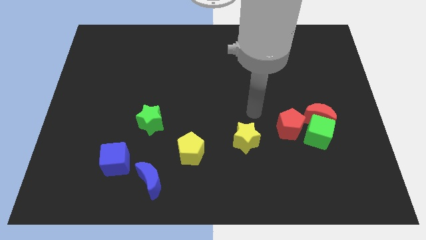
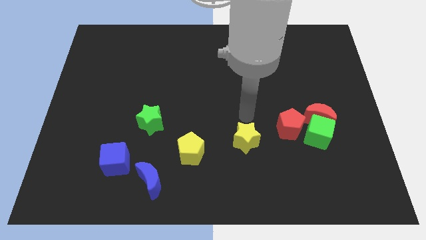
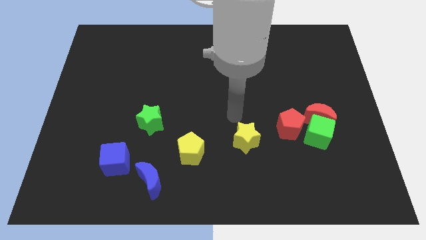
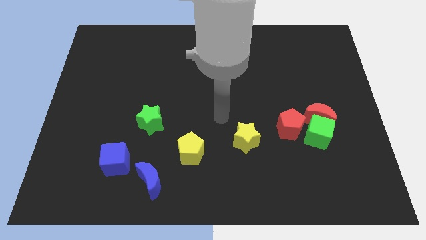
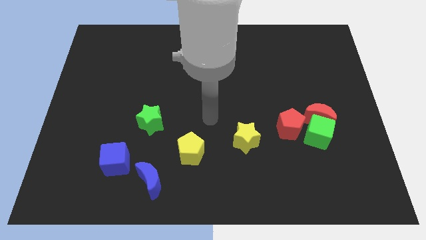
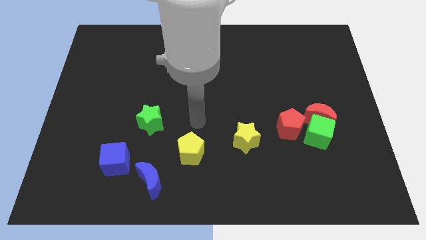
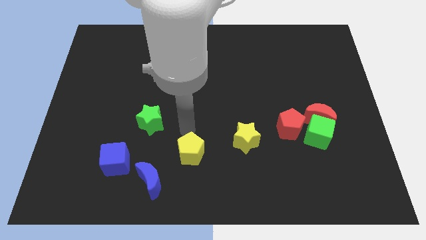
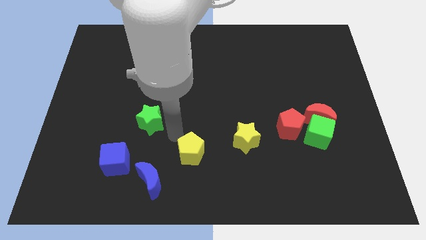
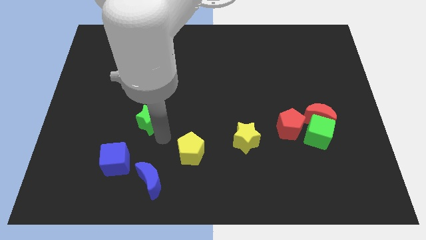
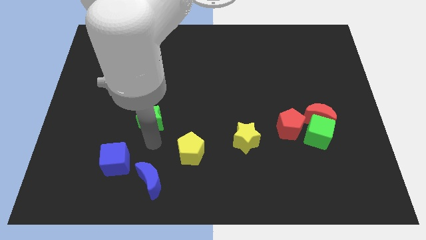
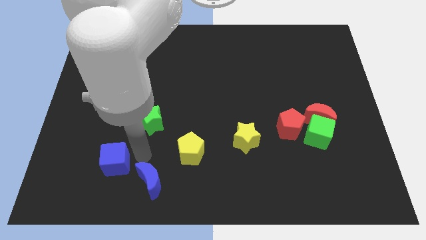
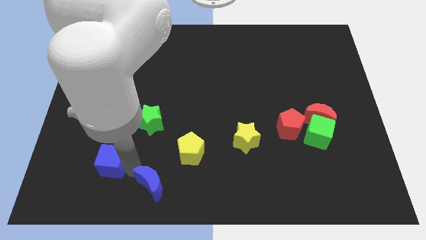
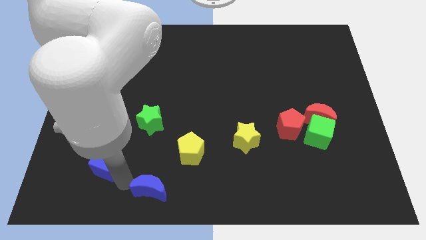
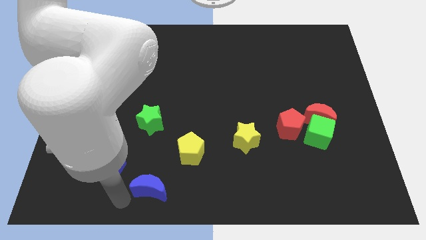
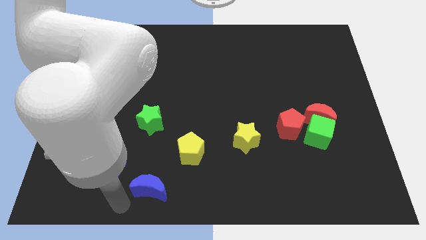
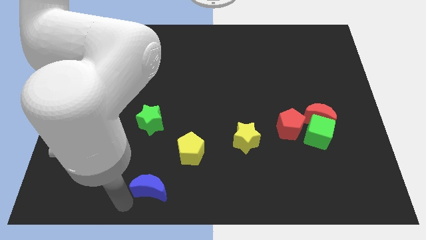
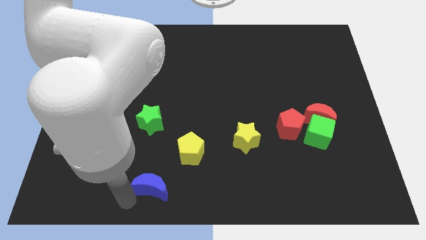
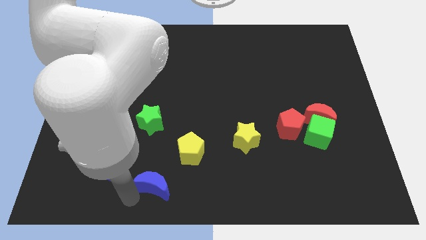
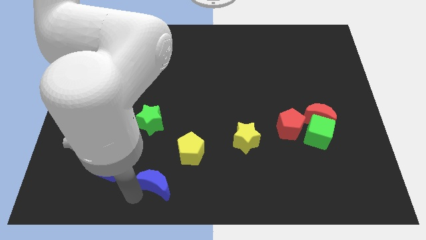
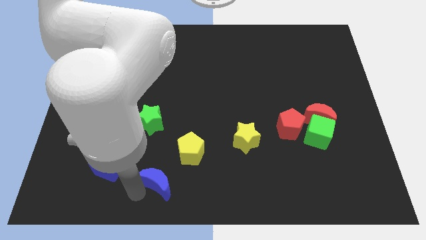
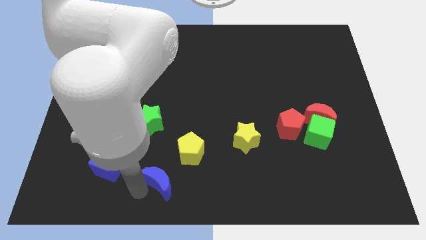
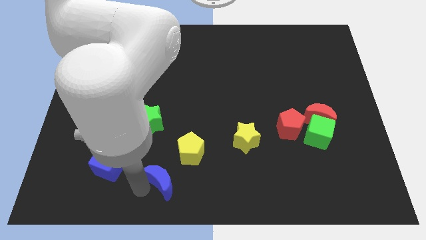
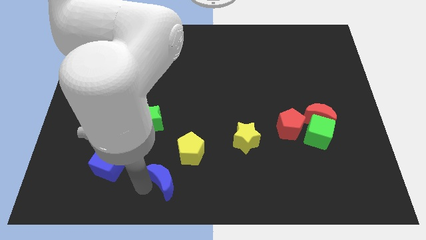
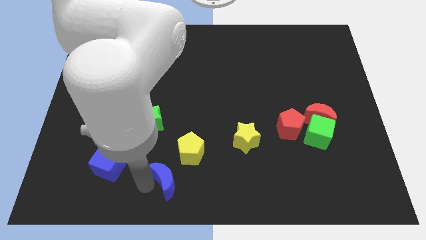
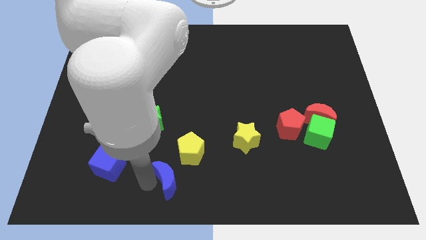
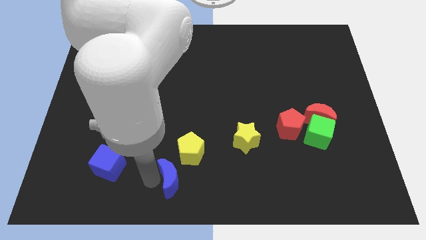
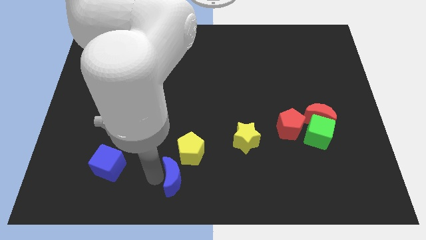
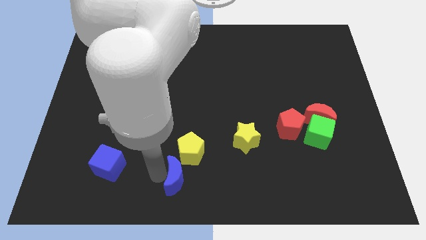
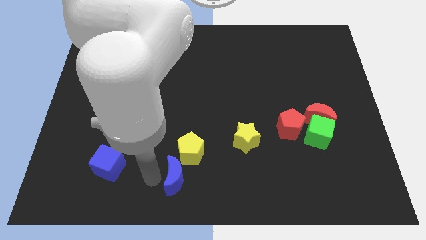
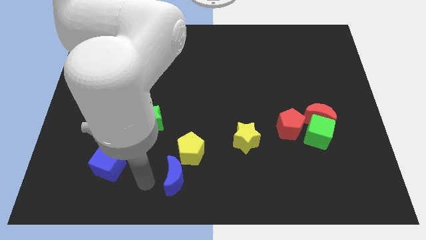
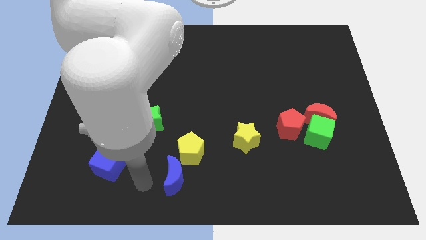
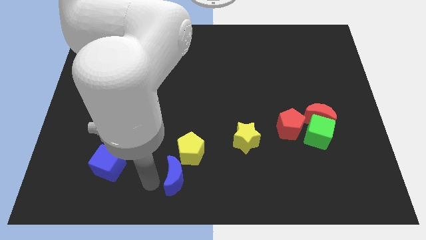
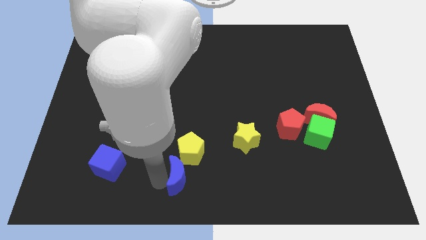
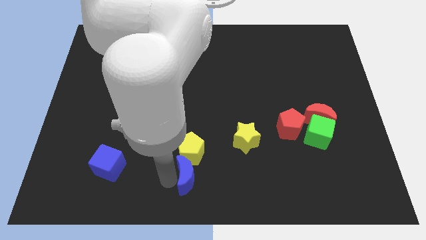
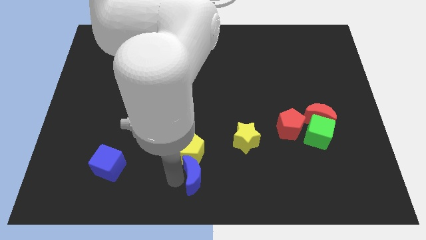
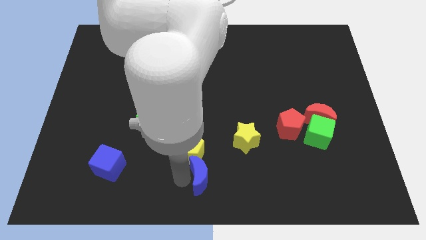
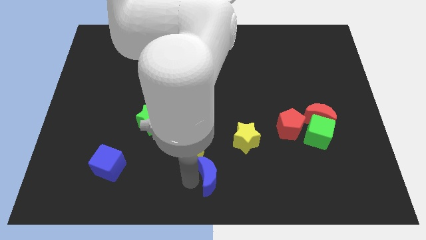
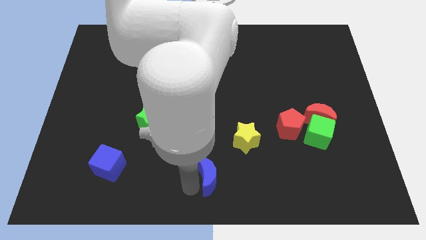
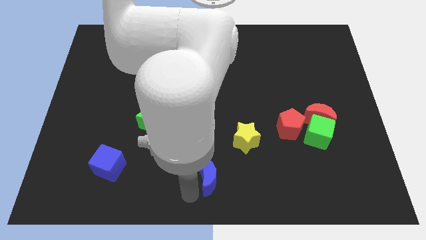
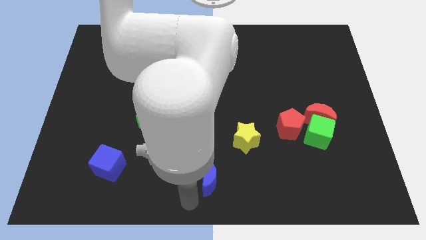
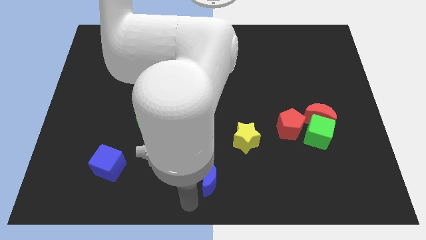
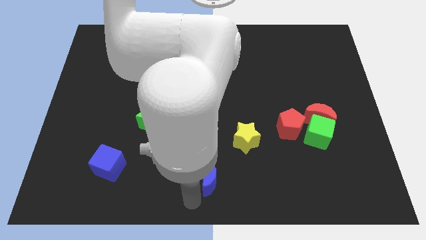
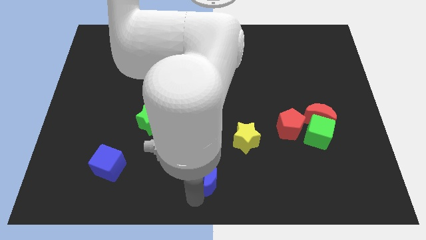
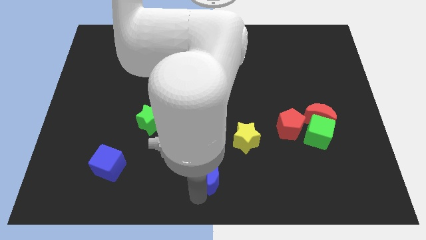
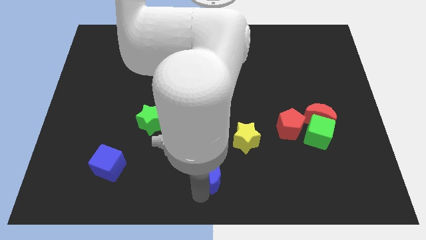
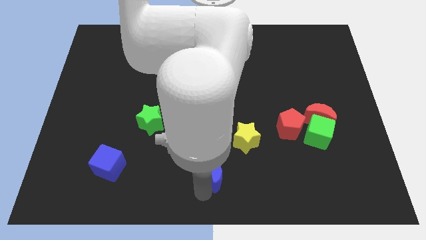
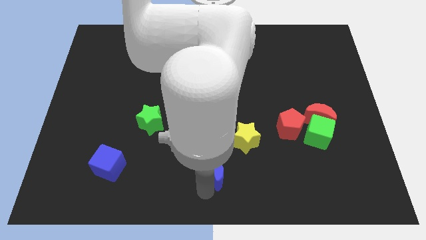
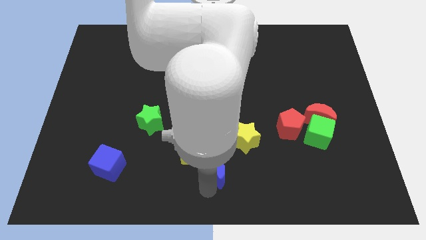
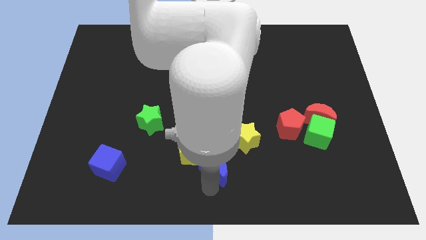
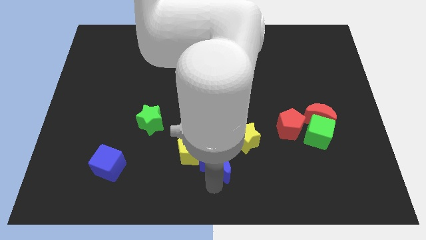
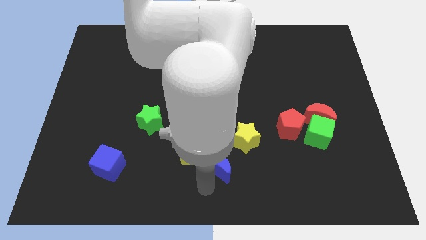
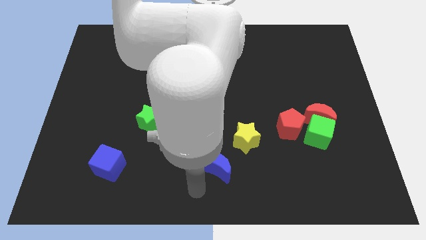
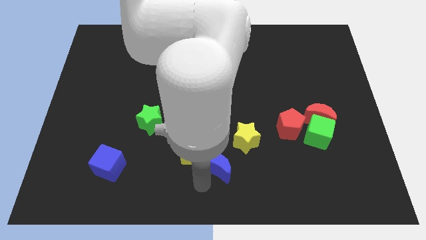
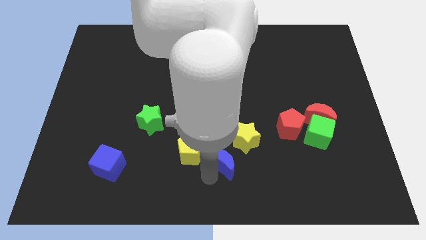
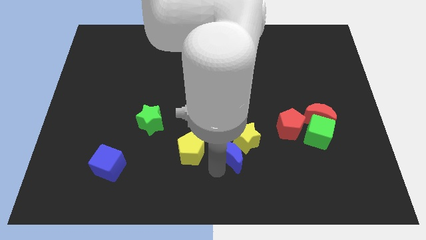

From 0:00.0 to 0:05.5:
push the blue moon to the yellow star
